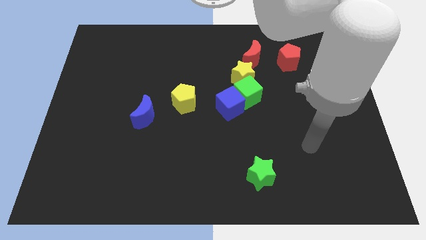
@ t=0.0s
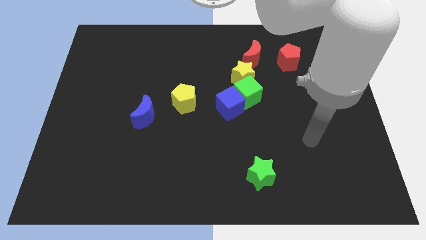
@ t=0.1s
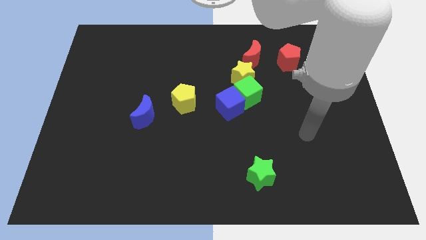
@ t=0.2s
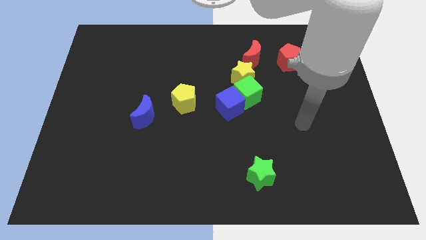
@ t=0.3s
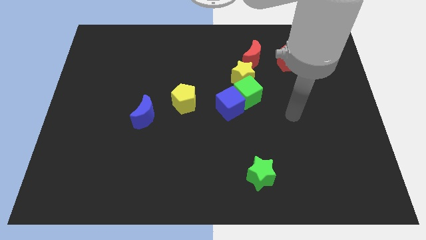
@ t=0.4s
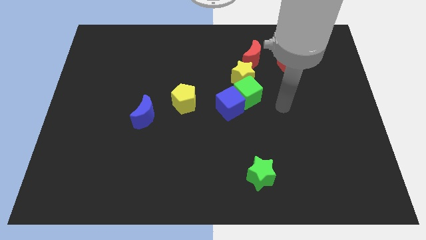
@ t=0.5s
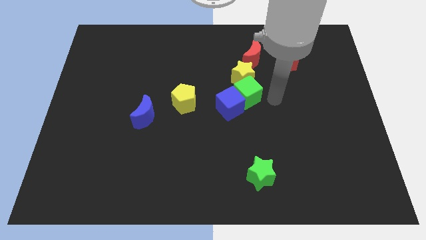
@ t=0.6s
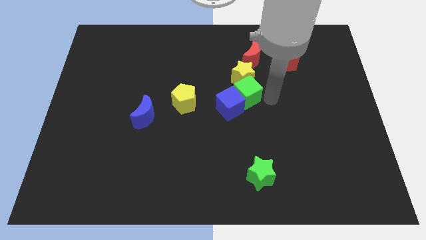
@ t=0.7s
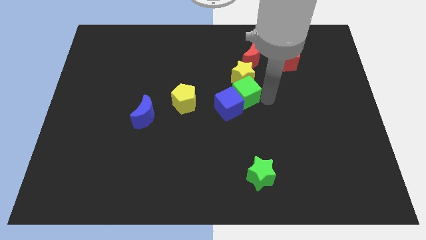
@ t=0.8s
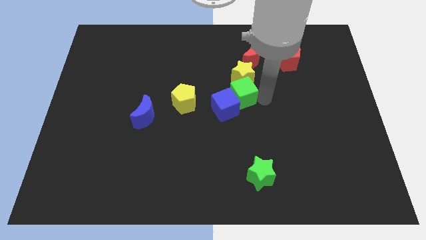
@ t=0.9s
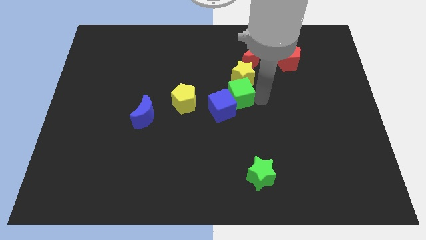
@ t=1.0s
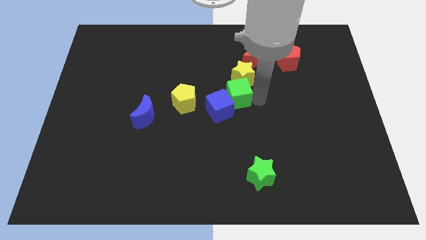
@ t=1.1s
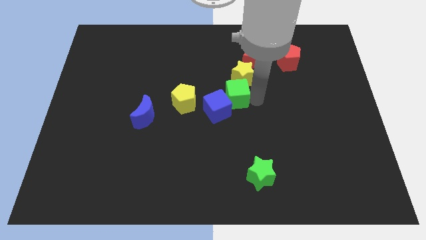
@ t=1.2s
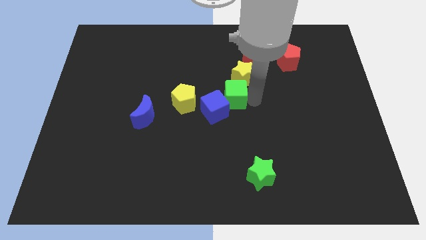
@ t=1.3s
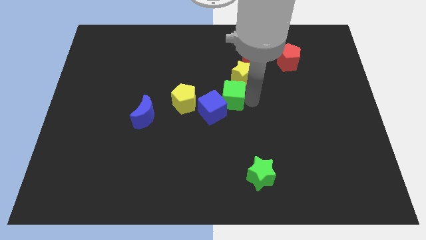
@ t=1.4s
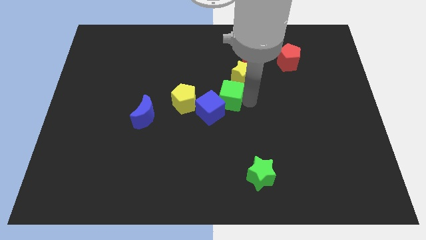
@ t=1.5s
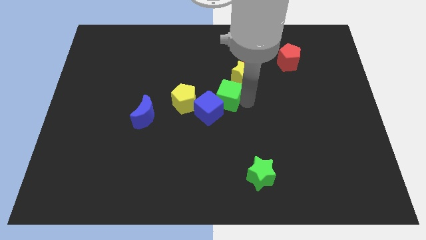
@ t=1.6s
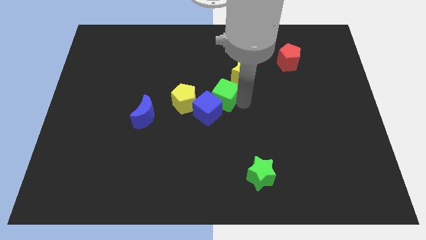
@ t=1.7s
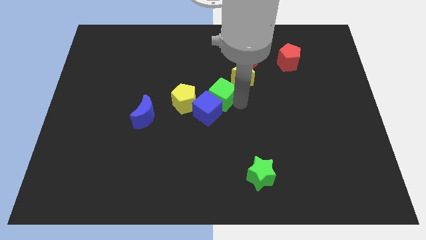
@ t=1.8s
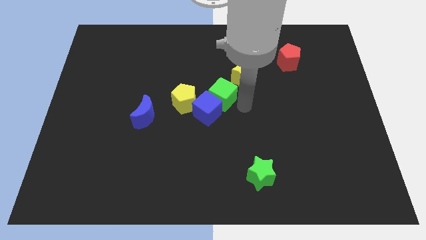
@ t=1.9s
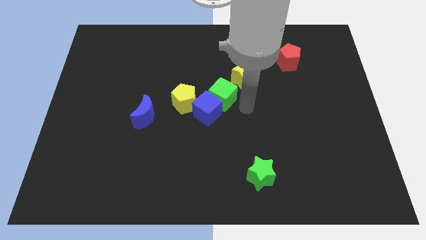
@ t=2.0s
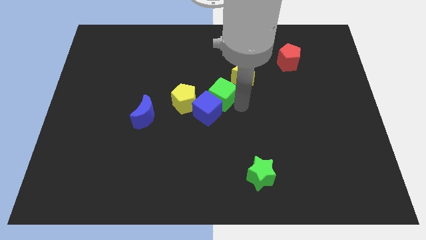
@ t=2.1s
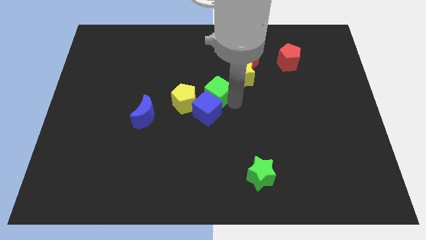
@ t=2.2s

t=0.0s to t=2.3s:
move the green cube to the left slightly

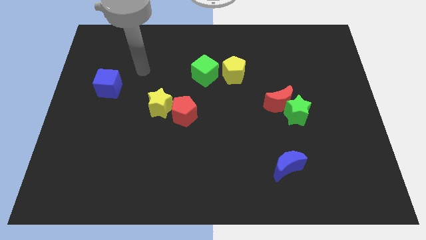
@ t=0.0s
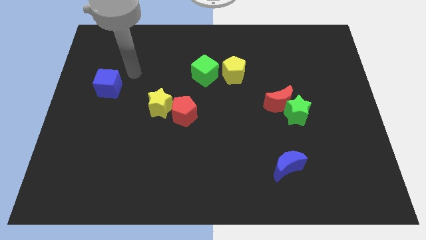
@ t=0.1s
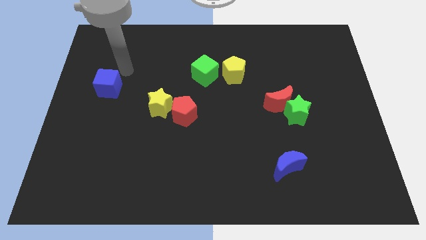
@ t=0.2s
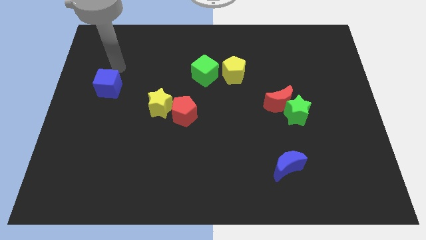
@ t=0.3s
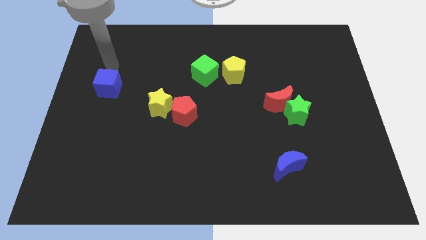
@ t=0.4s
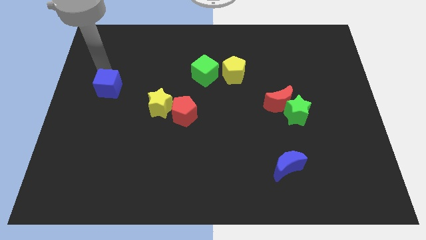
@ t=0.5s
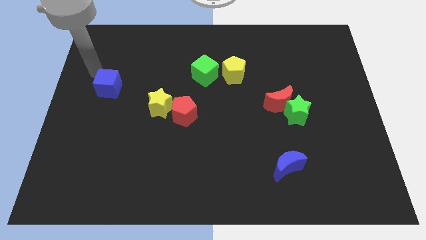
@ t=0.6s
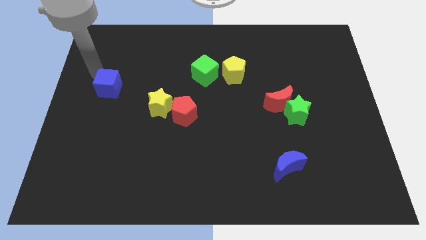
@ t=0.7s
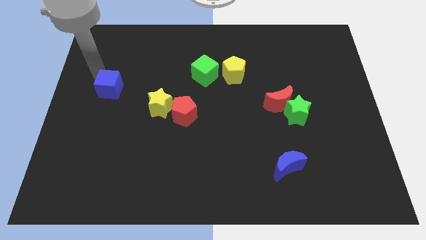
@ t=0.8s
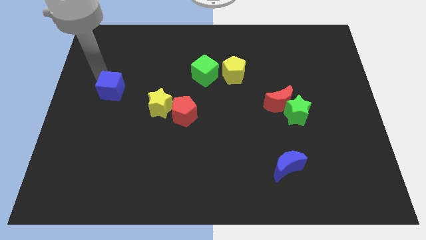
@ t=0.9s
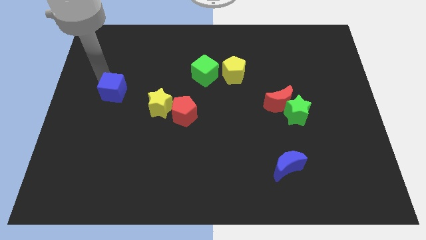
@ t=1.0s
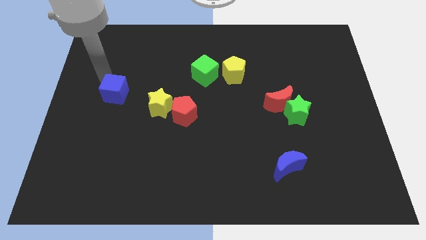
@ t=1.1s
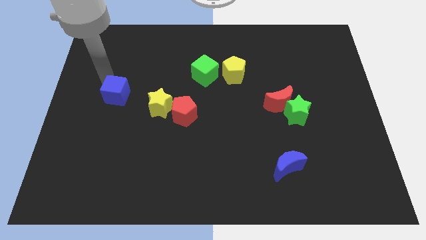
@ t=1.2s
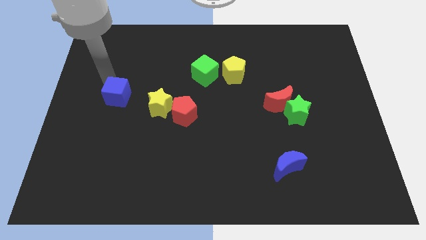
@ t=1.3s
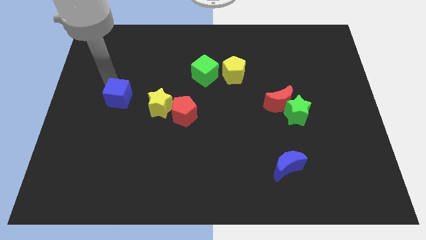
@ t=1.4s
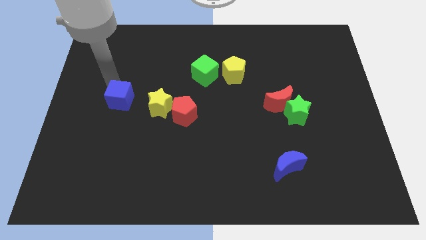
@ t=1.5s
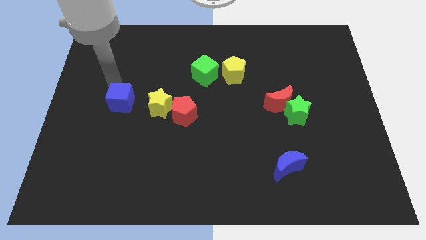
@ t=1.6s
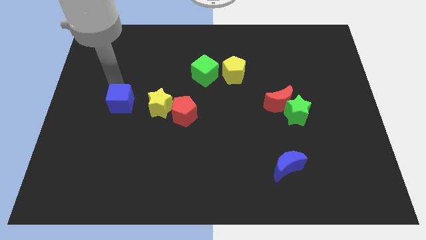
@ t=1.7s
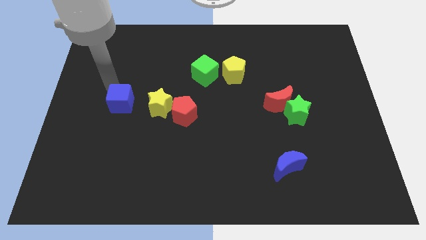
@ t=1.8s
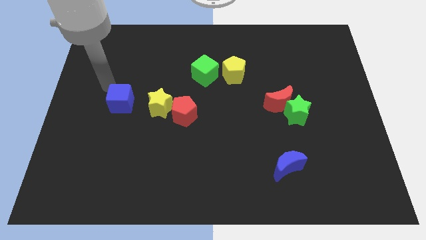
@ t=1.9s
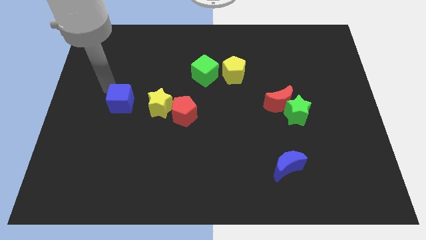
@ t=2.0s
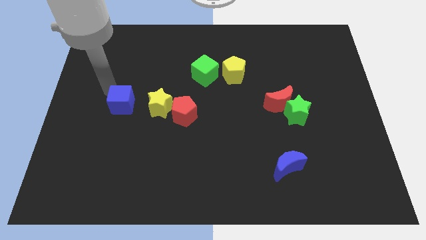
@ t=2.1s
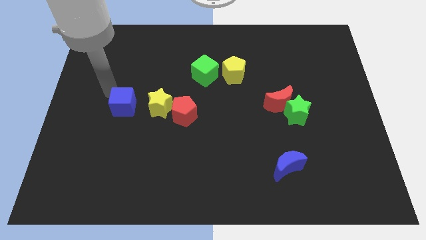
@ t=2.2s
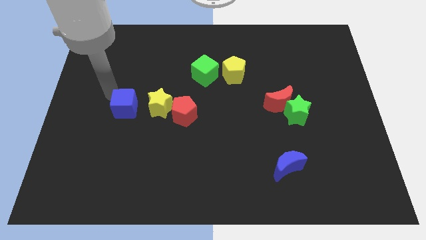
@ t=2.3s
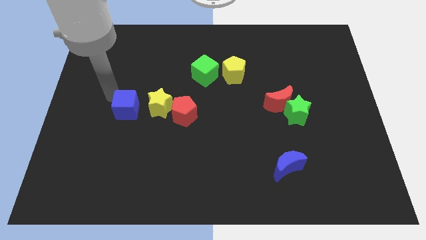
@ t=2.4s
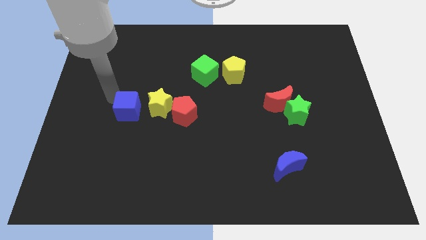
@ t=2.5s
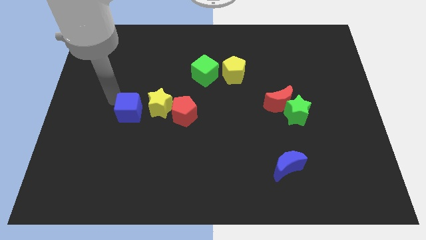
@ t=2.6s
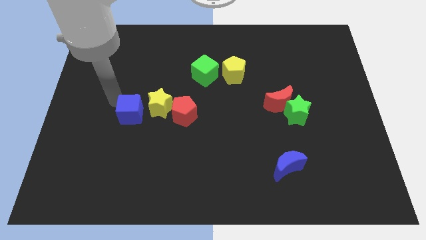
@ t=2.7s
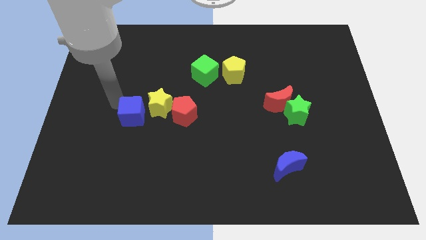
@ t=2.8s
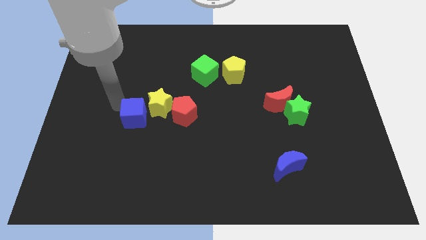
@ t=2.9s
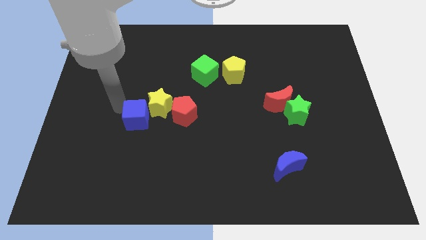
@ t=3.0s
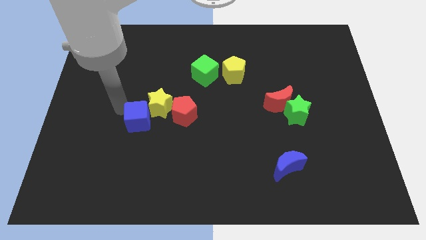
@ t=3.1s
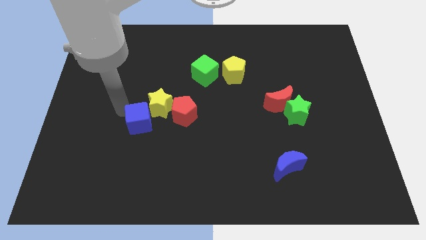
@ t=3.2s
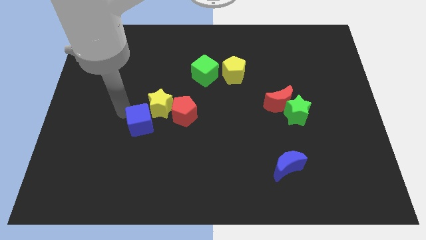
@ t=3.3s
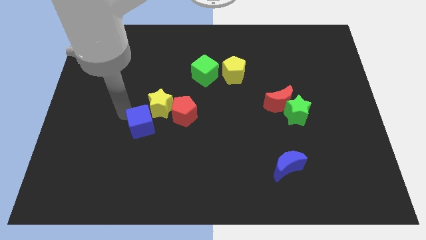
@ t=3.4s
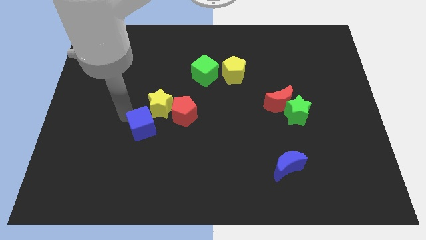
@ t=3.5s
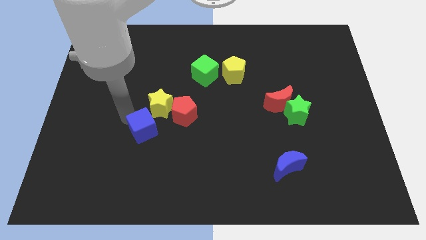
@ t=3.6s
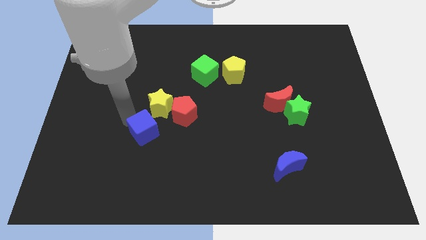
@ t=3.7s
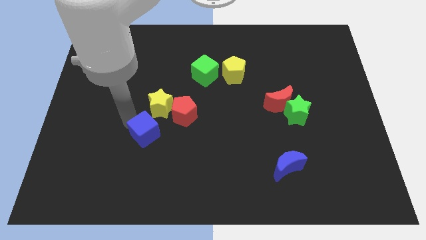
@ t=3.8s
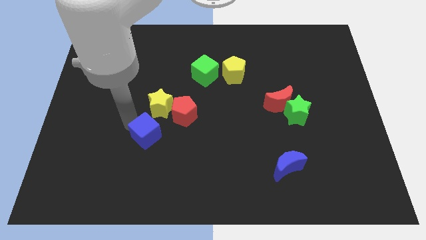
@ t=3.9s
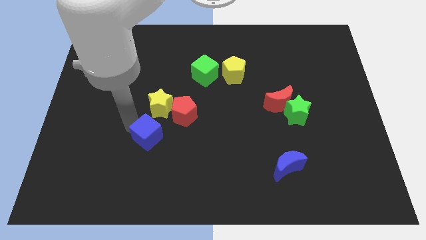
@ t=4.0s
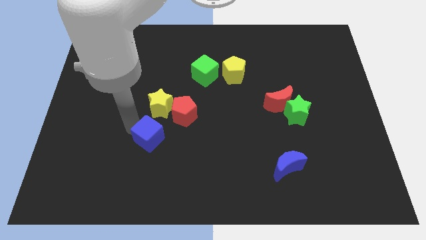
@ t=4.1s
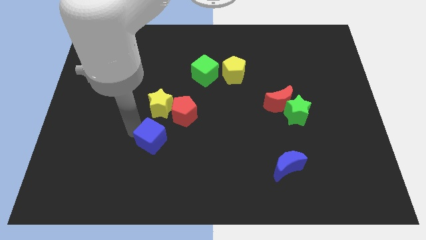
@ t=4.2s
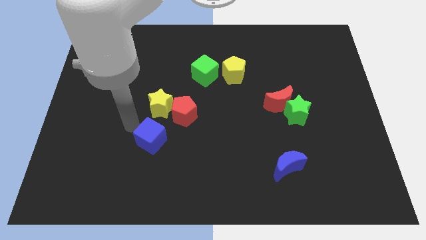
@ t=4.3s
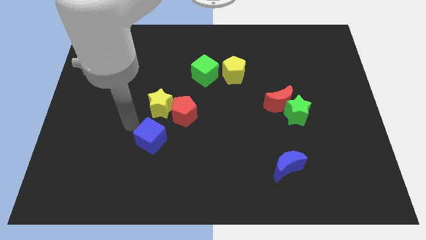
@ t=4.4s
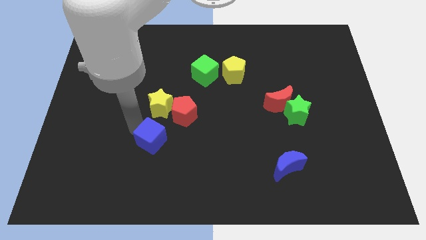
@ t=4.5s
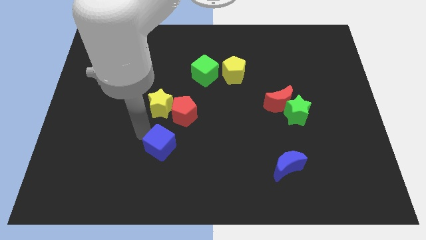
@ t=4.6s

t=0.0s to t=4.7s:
slide the blue cube down and to the right

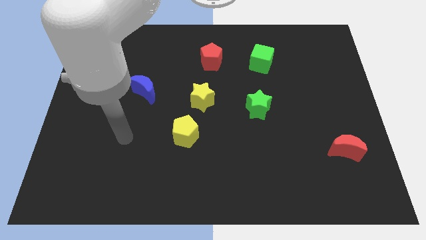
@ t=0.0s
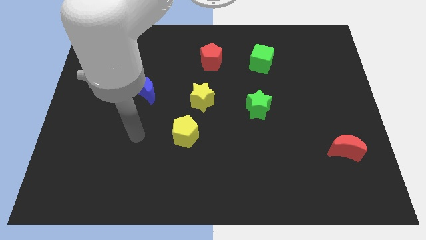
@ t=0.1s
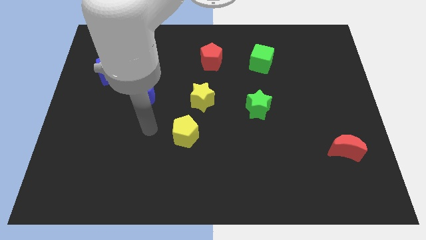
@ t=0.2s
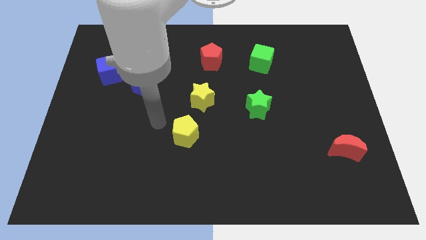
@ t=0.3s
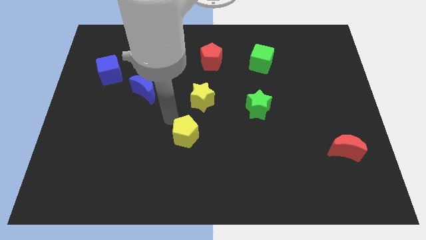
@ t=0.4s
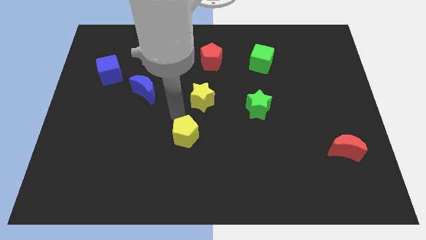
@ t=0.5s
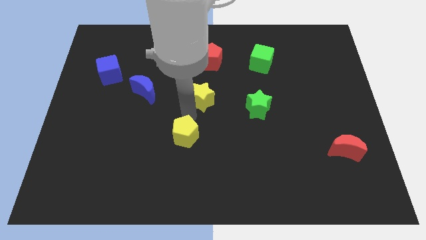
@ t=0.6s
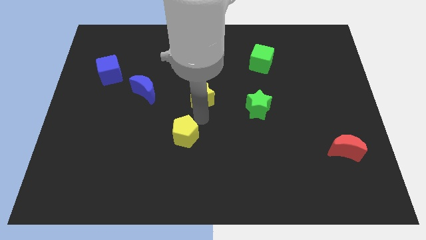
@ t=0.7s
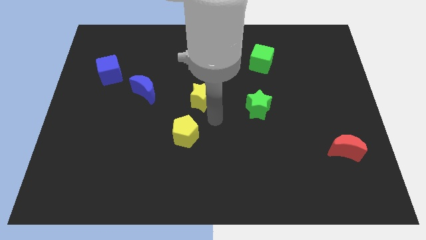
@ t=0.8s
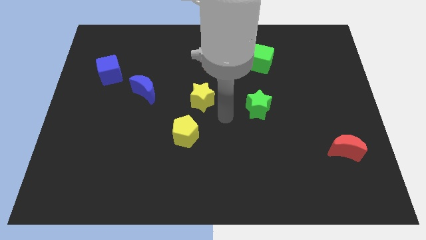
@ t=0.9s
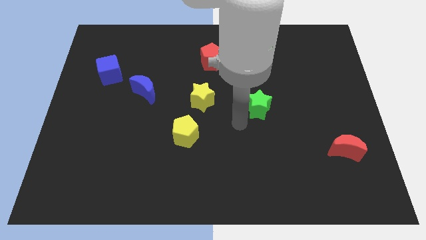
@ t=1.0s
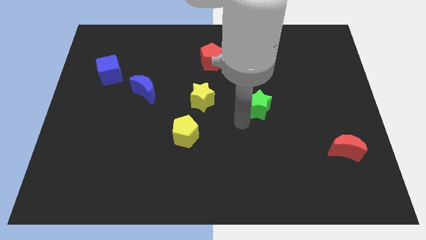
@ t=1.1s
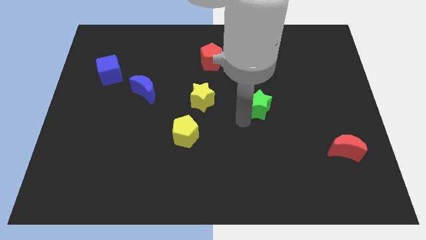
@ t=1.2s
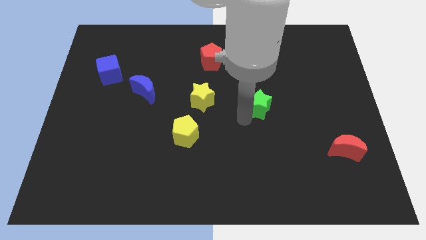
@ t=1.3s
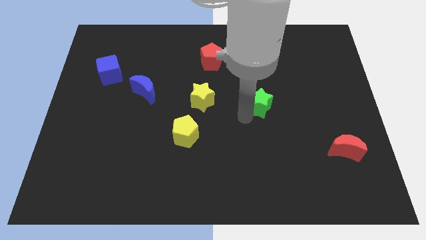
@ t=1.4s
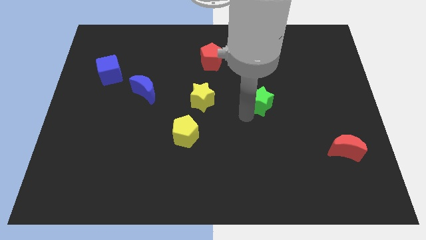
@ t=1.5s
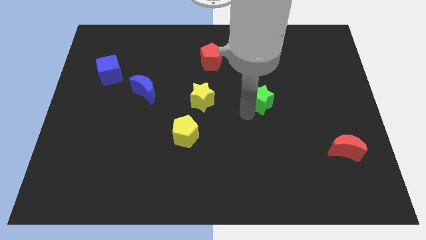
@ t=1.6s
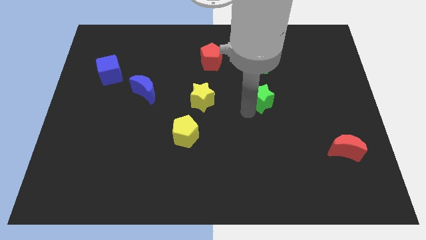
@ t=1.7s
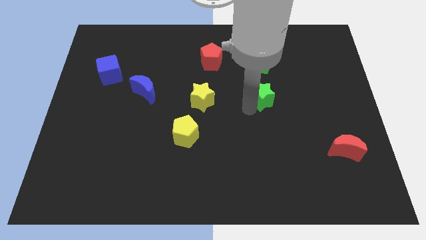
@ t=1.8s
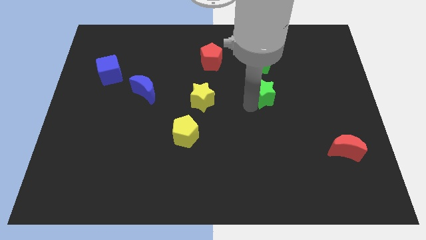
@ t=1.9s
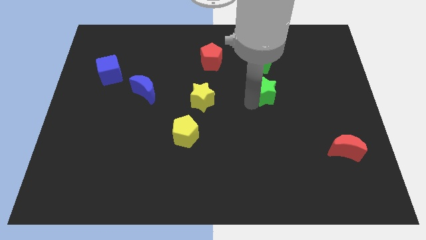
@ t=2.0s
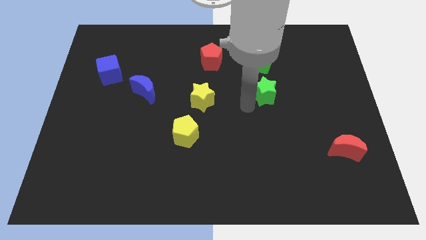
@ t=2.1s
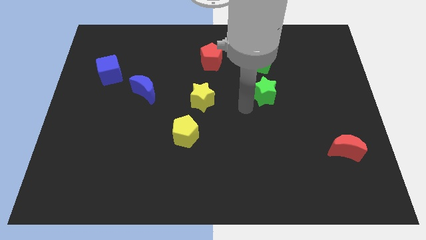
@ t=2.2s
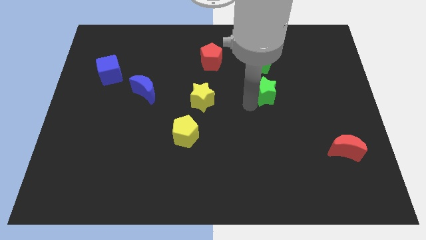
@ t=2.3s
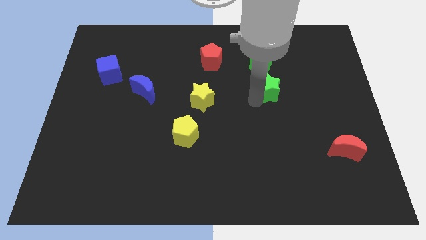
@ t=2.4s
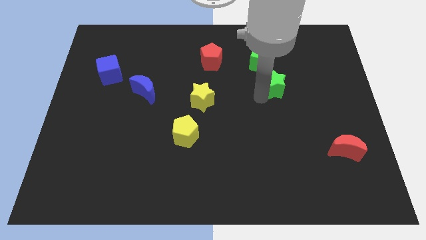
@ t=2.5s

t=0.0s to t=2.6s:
slide the green star upwards and right diagonally somewhat
